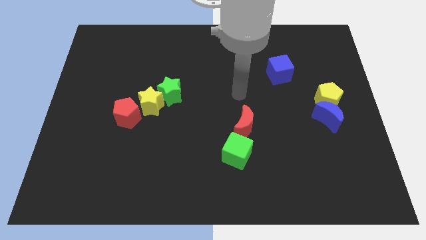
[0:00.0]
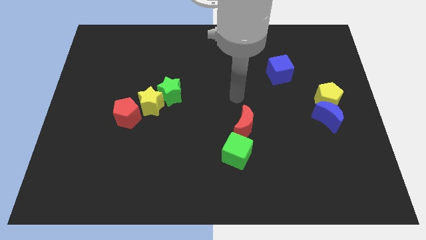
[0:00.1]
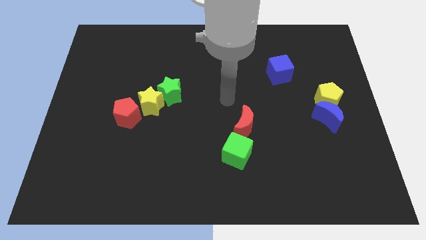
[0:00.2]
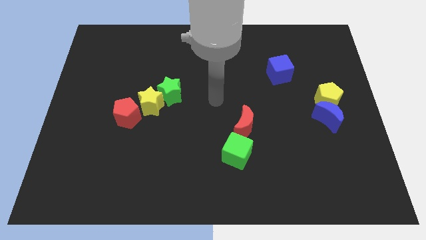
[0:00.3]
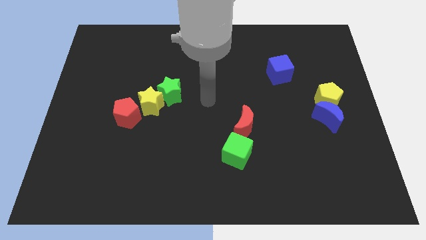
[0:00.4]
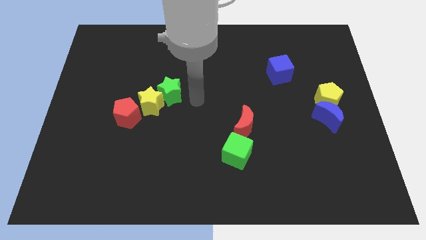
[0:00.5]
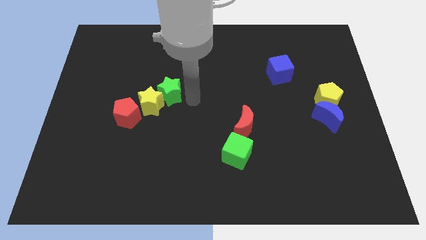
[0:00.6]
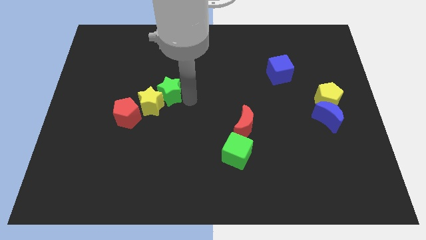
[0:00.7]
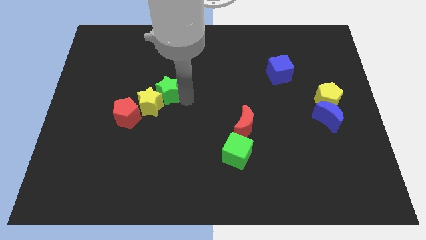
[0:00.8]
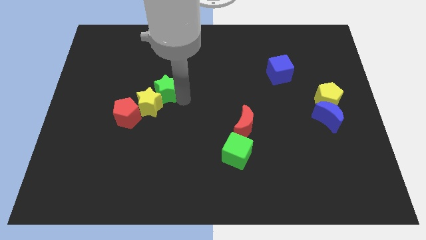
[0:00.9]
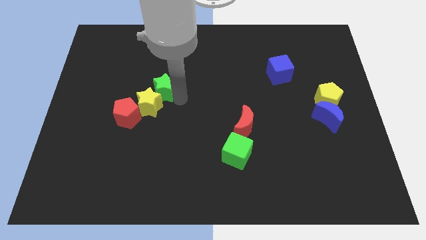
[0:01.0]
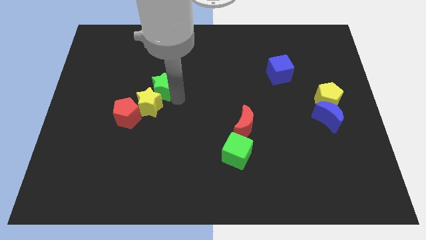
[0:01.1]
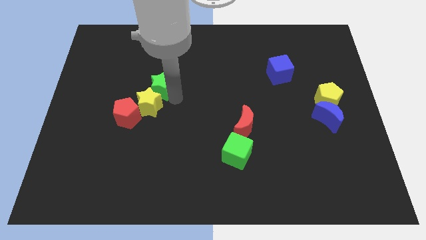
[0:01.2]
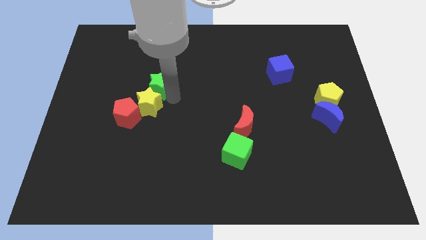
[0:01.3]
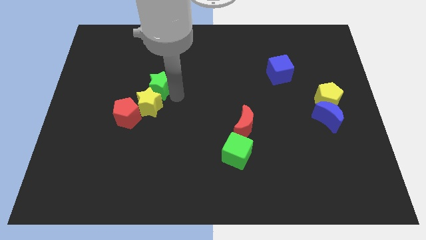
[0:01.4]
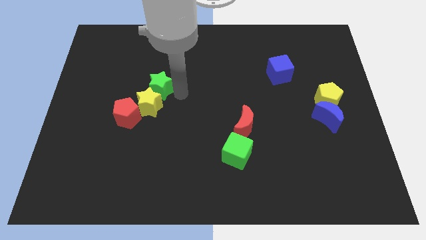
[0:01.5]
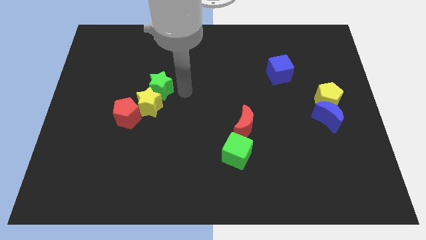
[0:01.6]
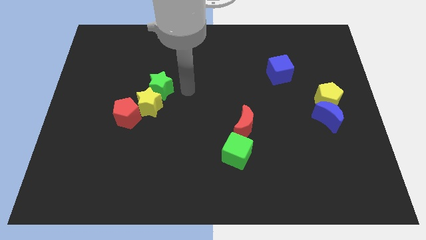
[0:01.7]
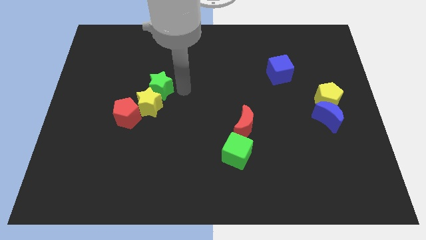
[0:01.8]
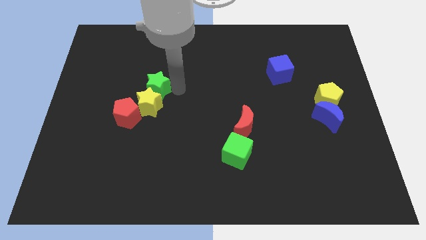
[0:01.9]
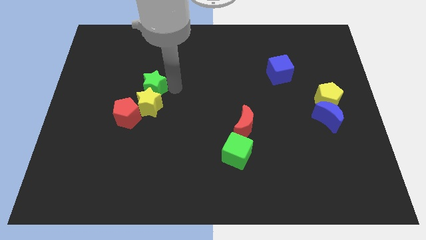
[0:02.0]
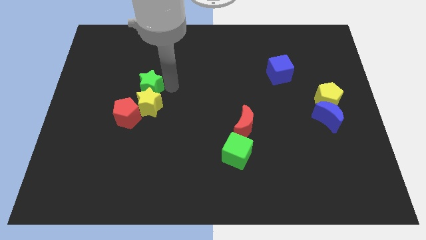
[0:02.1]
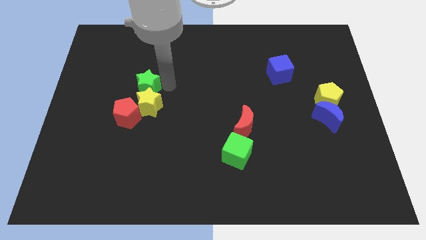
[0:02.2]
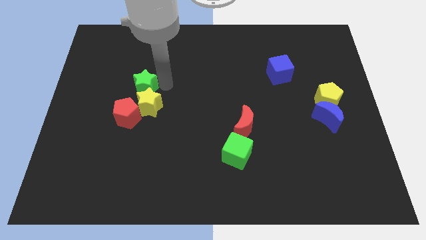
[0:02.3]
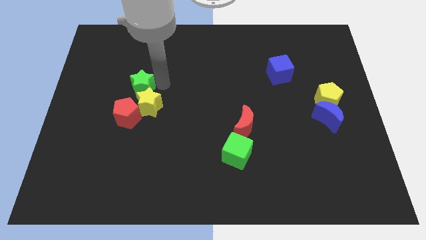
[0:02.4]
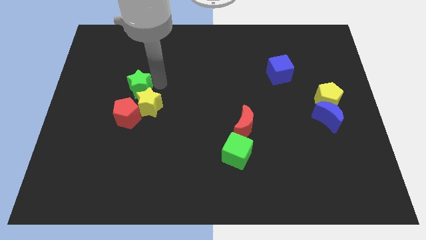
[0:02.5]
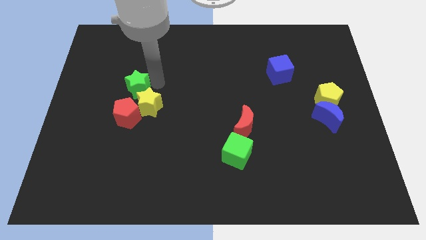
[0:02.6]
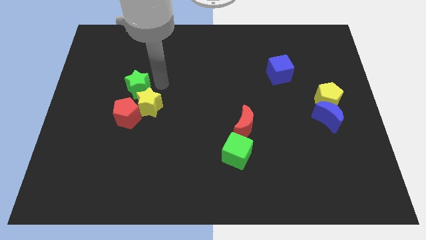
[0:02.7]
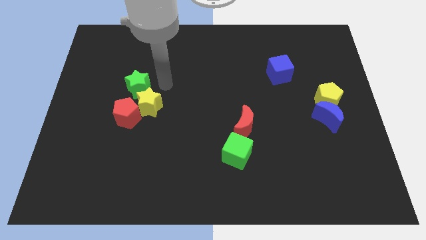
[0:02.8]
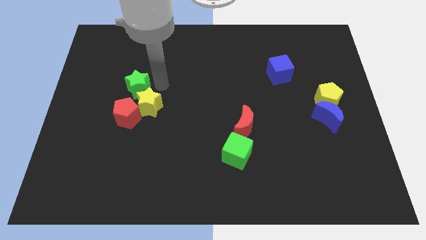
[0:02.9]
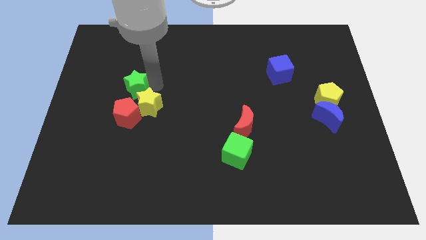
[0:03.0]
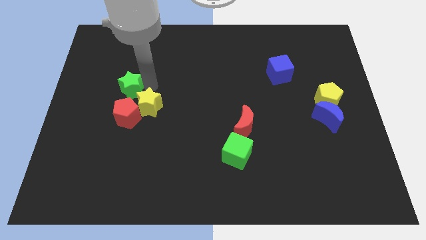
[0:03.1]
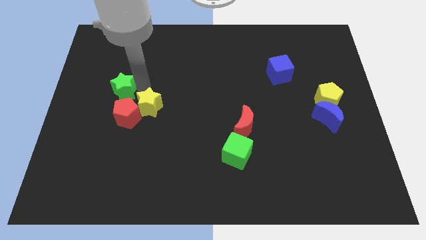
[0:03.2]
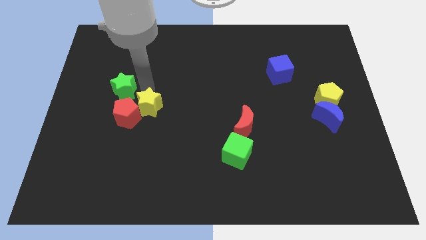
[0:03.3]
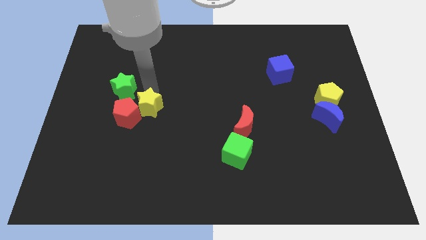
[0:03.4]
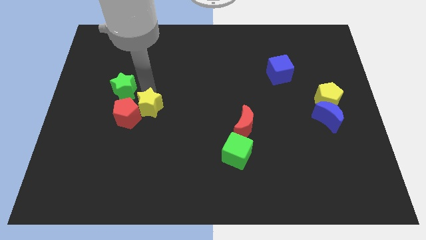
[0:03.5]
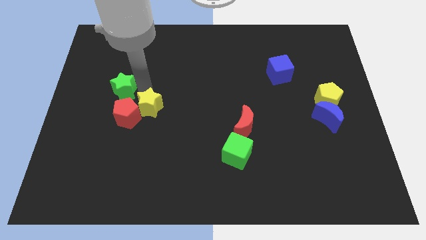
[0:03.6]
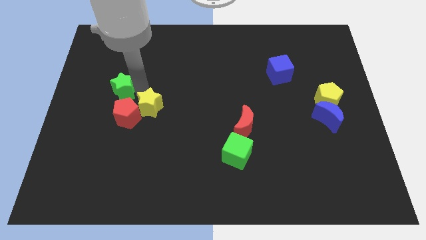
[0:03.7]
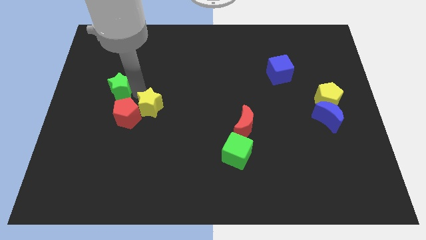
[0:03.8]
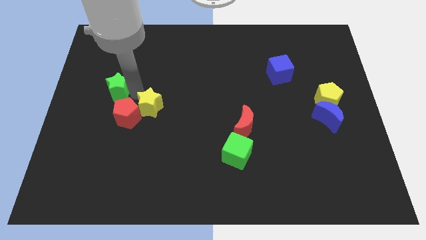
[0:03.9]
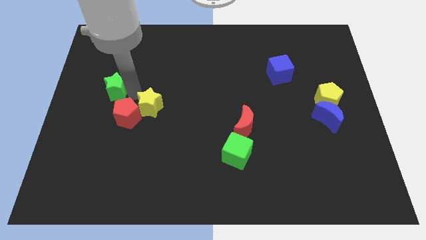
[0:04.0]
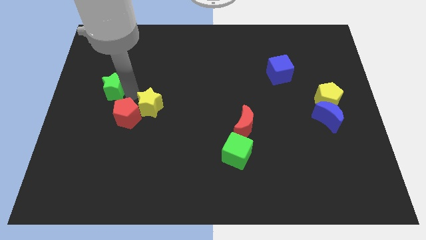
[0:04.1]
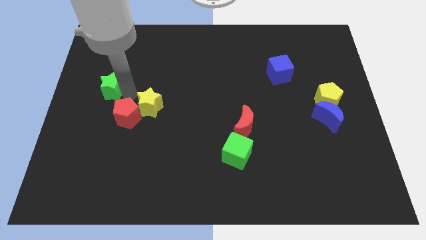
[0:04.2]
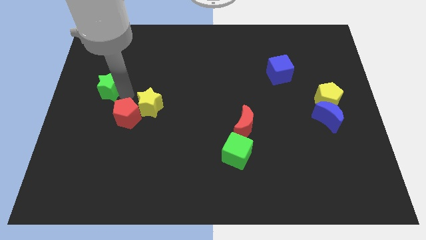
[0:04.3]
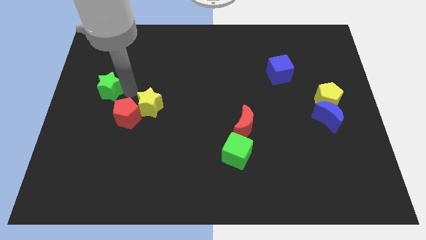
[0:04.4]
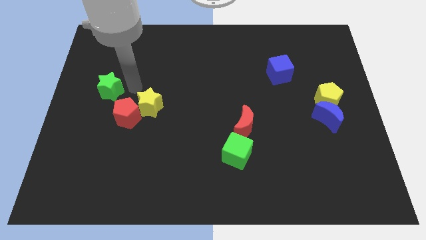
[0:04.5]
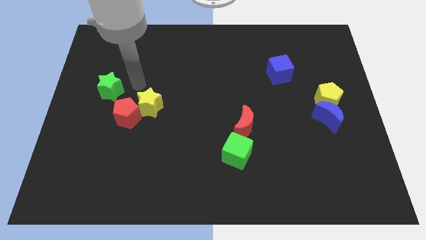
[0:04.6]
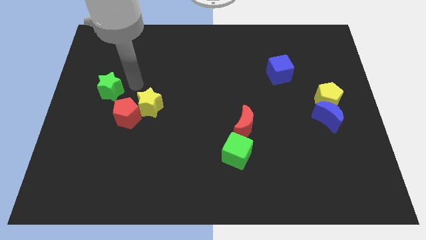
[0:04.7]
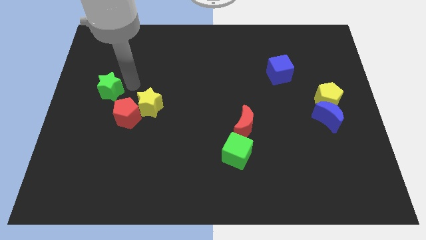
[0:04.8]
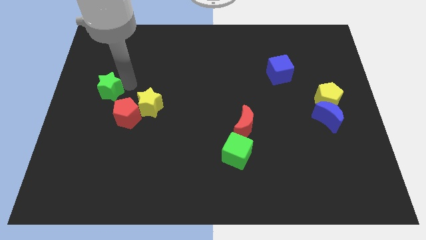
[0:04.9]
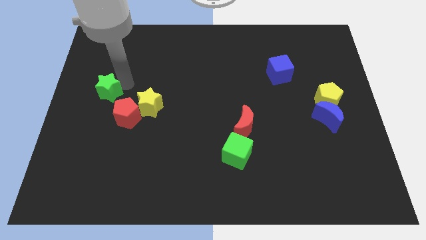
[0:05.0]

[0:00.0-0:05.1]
move the green star to the center left

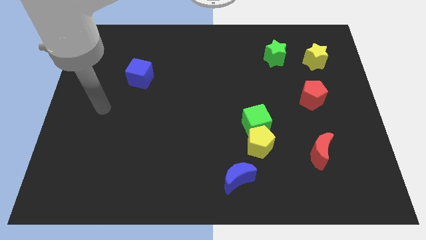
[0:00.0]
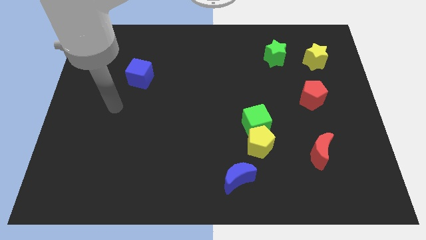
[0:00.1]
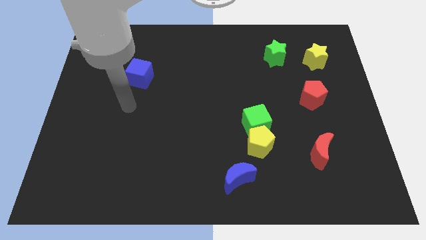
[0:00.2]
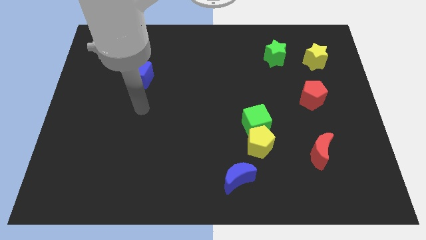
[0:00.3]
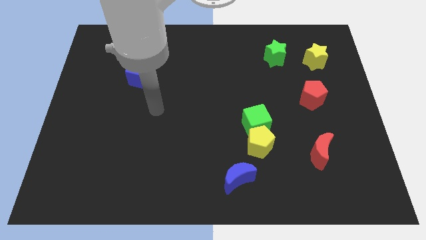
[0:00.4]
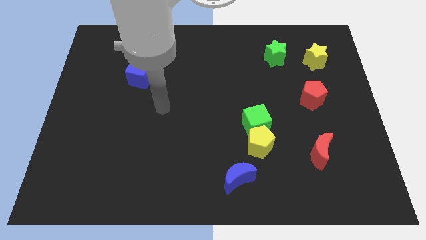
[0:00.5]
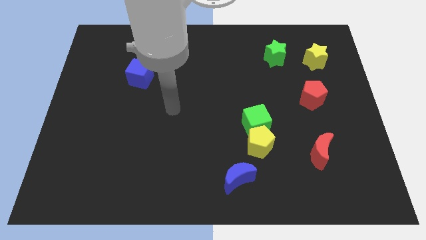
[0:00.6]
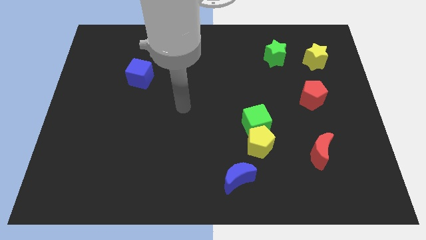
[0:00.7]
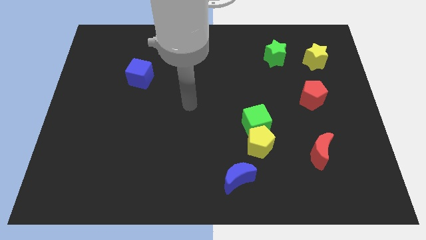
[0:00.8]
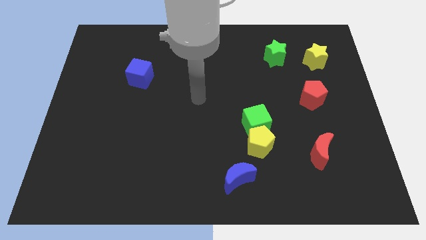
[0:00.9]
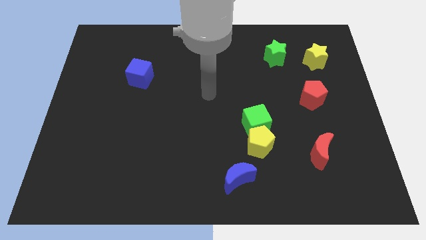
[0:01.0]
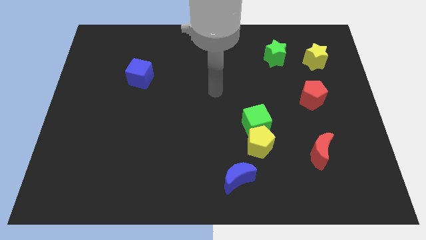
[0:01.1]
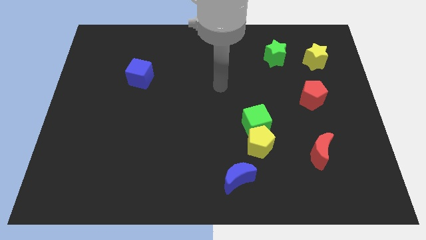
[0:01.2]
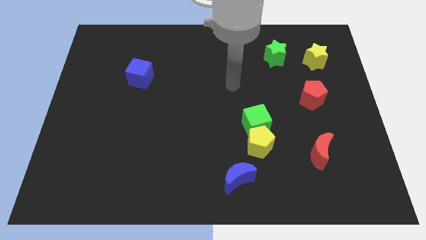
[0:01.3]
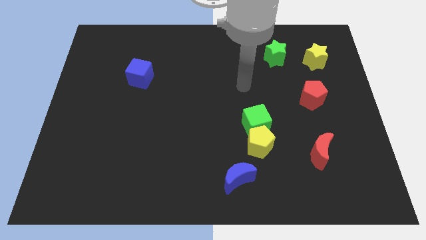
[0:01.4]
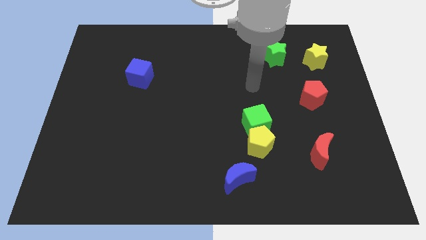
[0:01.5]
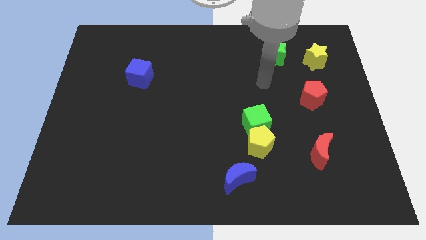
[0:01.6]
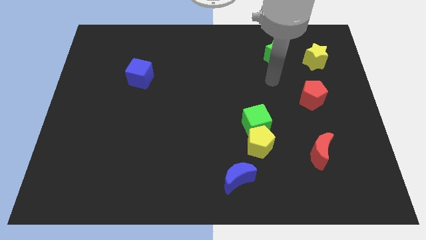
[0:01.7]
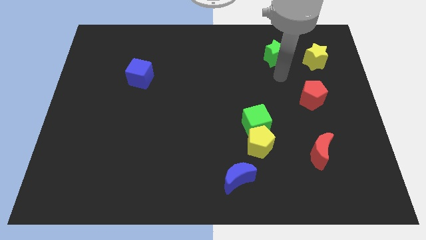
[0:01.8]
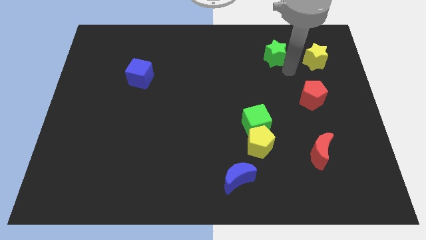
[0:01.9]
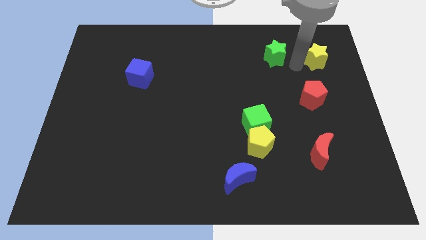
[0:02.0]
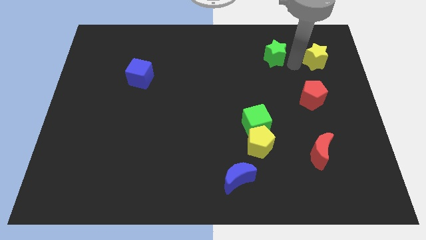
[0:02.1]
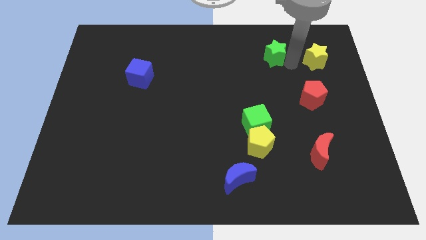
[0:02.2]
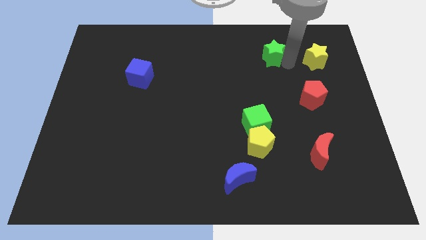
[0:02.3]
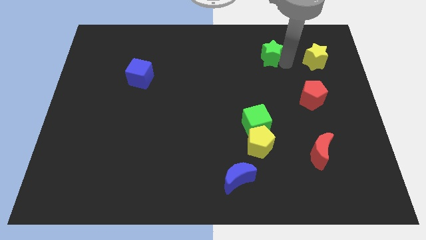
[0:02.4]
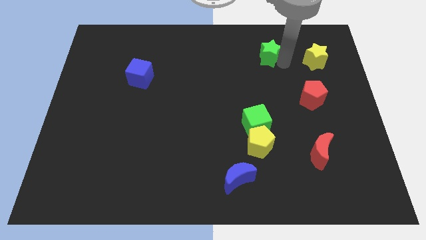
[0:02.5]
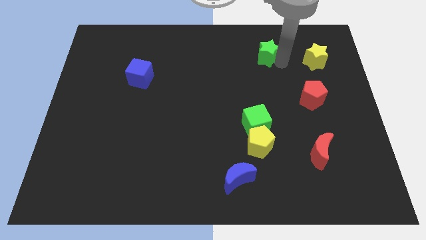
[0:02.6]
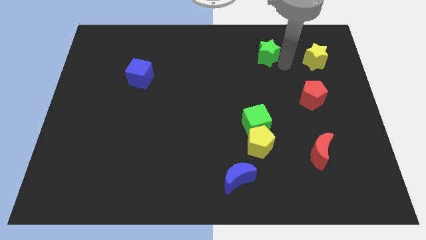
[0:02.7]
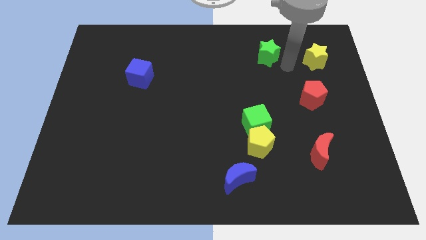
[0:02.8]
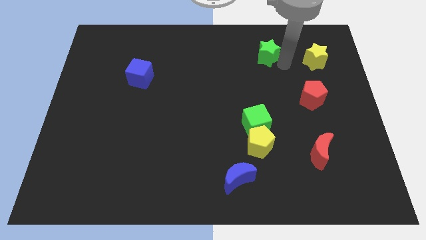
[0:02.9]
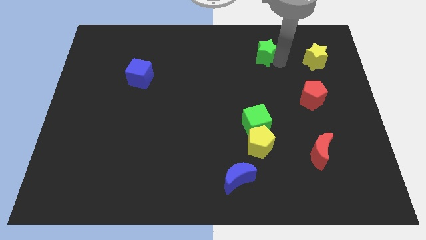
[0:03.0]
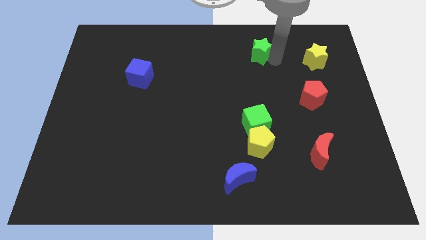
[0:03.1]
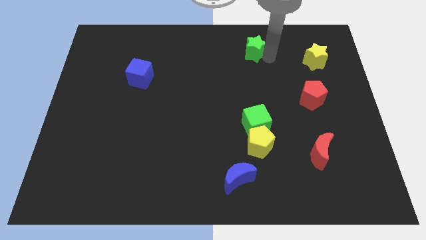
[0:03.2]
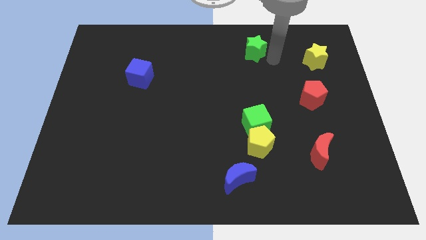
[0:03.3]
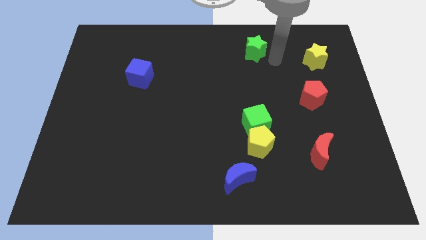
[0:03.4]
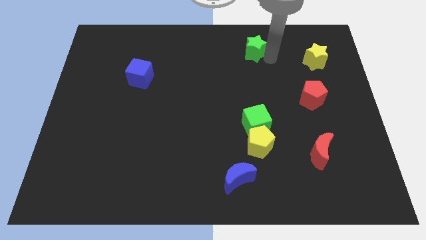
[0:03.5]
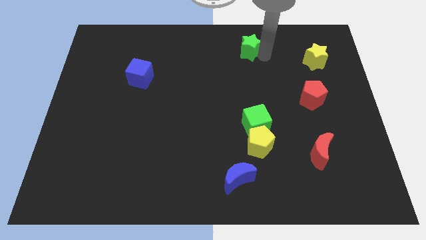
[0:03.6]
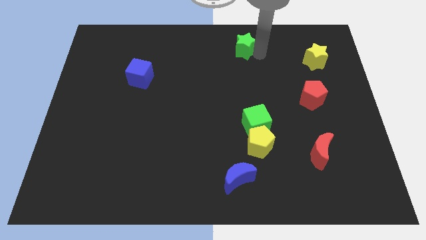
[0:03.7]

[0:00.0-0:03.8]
push the green star to the top side
